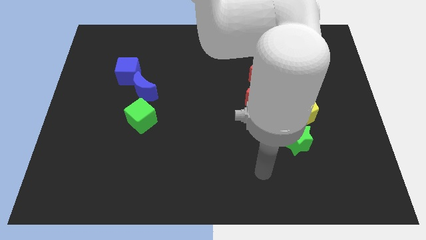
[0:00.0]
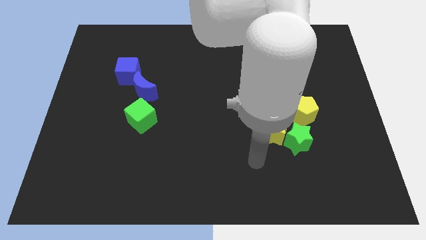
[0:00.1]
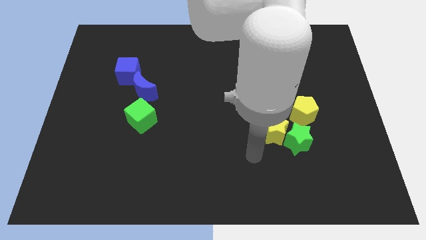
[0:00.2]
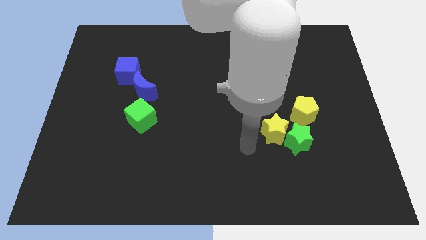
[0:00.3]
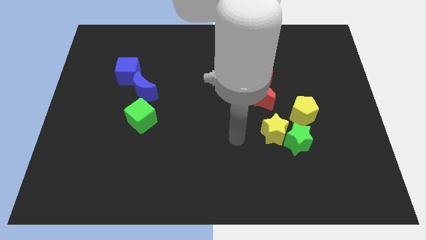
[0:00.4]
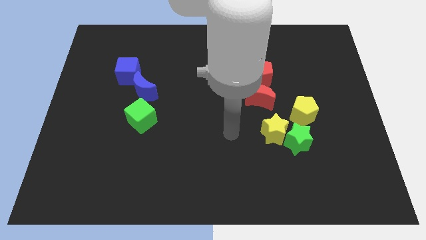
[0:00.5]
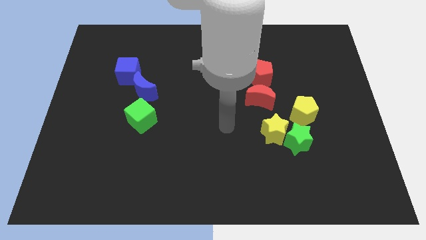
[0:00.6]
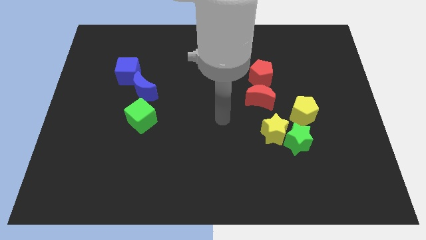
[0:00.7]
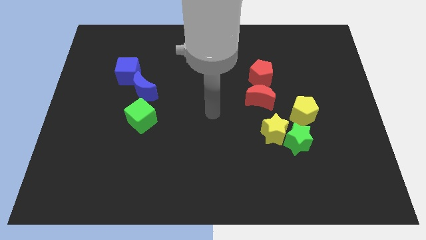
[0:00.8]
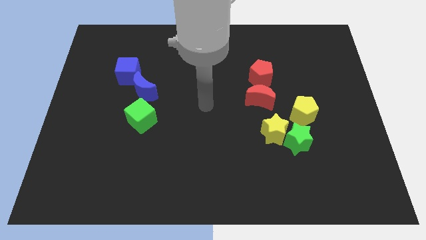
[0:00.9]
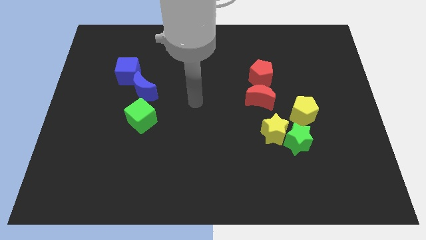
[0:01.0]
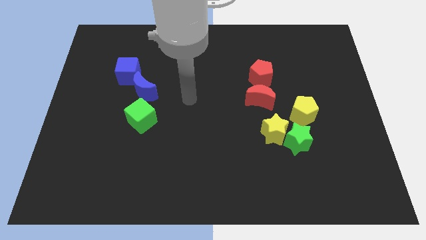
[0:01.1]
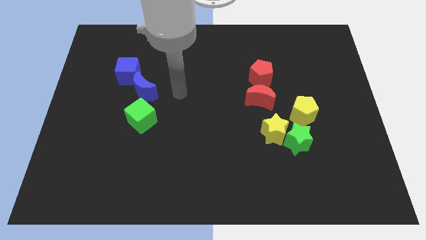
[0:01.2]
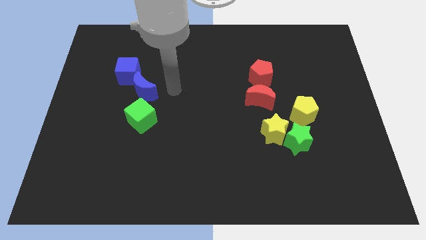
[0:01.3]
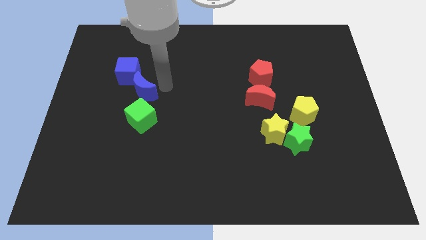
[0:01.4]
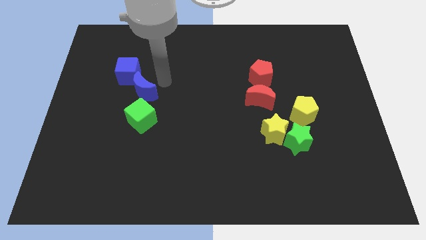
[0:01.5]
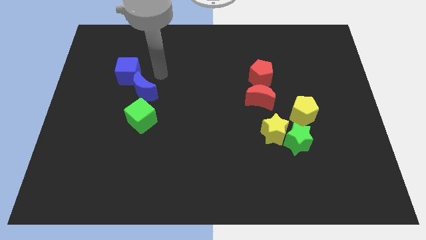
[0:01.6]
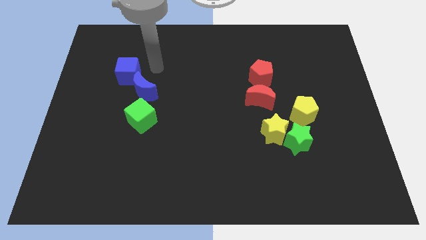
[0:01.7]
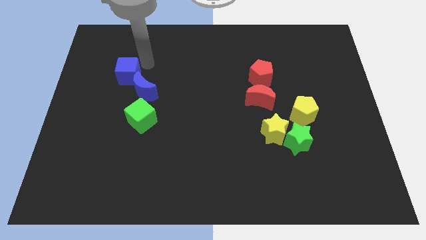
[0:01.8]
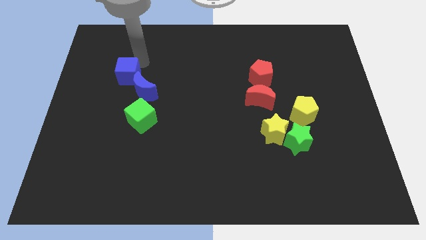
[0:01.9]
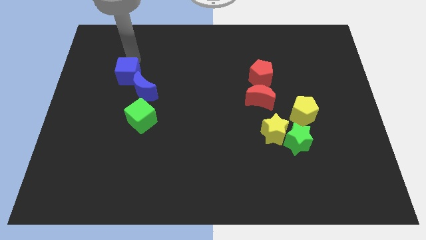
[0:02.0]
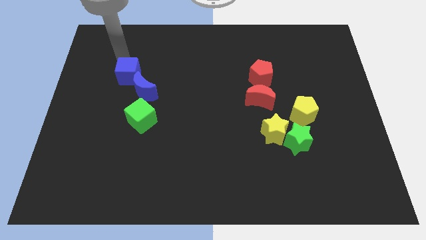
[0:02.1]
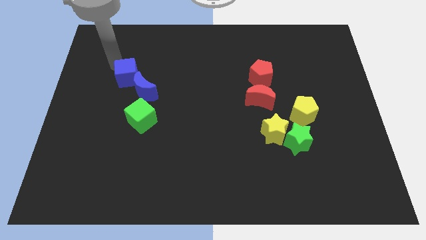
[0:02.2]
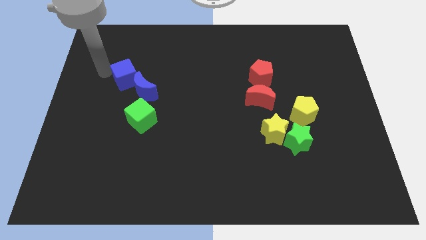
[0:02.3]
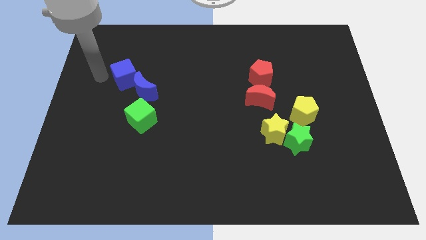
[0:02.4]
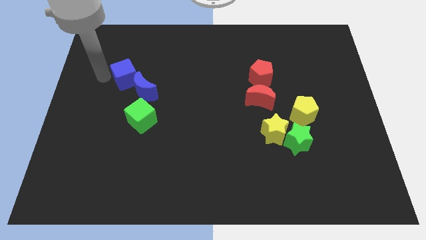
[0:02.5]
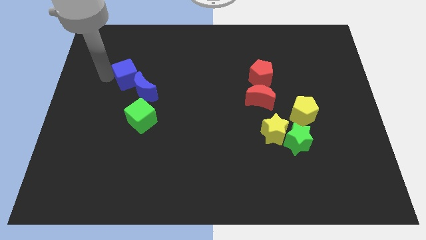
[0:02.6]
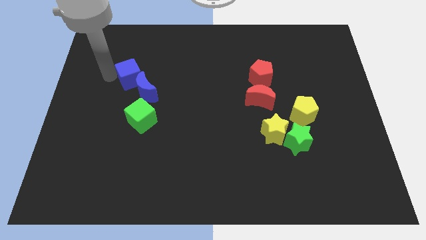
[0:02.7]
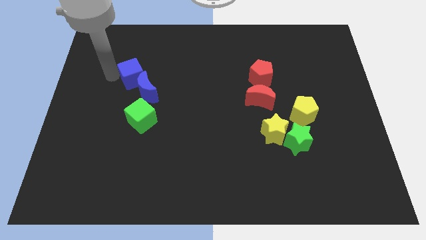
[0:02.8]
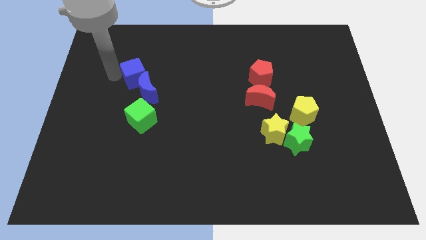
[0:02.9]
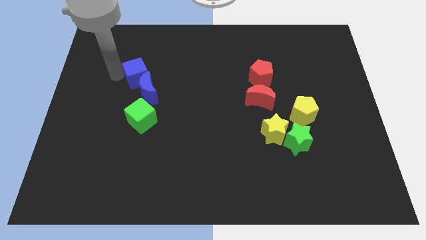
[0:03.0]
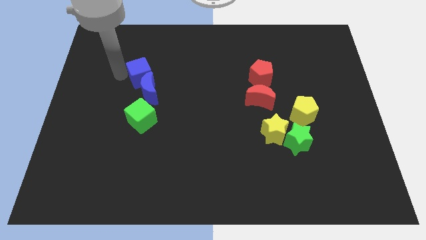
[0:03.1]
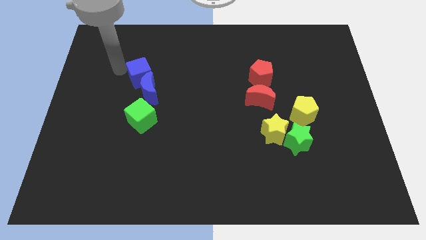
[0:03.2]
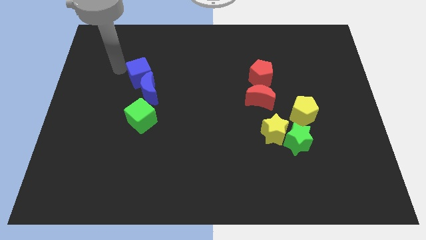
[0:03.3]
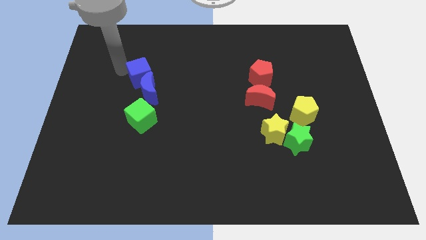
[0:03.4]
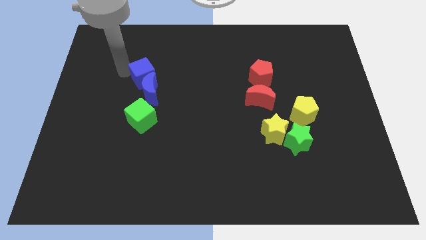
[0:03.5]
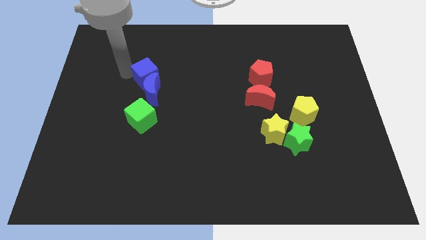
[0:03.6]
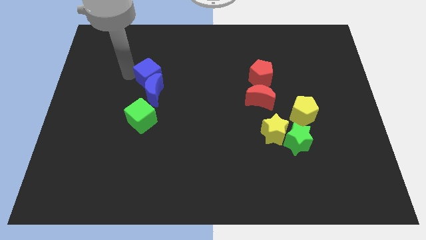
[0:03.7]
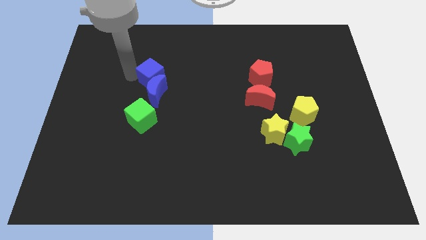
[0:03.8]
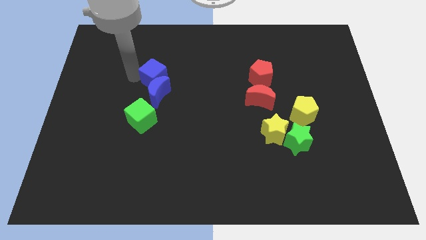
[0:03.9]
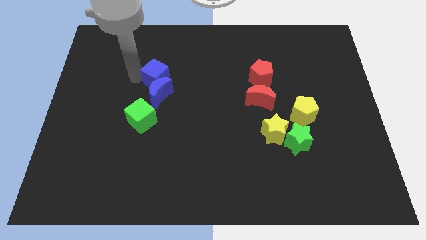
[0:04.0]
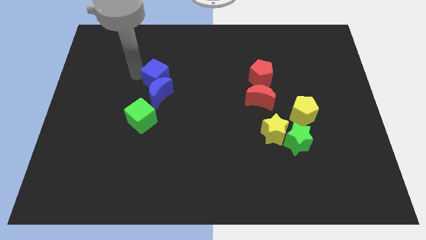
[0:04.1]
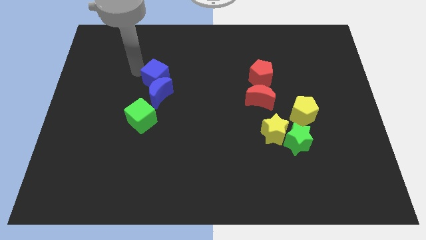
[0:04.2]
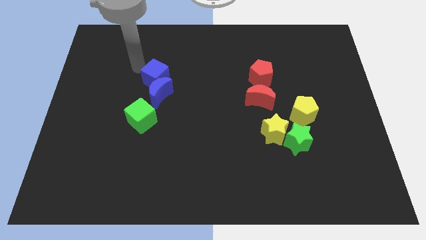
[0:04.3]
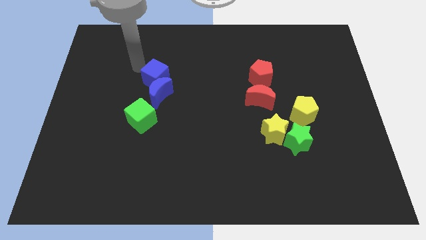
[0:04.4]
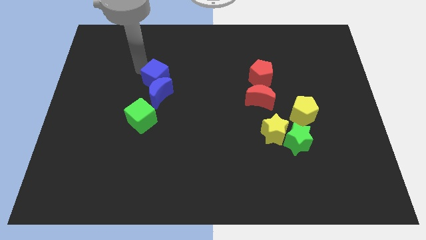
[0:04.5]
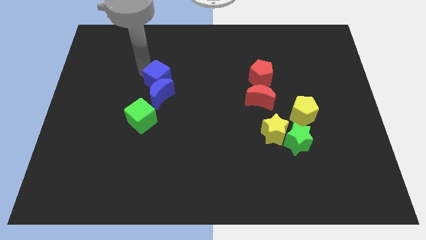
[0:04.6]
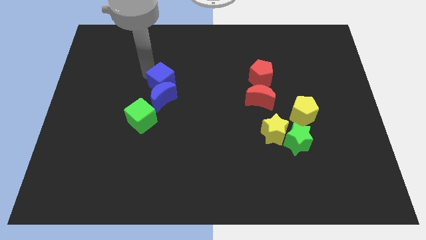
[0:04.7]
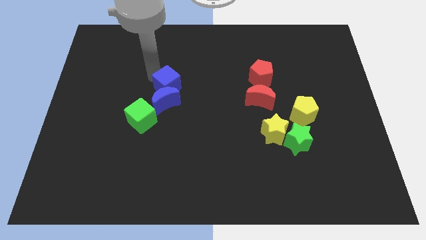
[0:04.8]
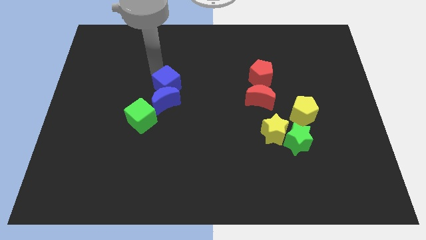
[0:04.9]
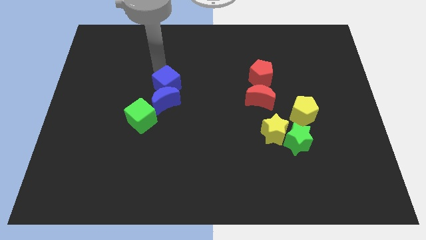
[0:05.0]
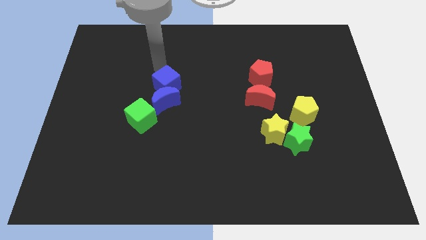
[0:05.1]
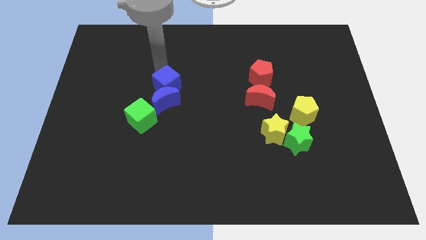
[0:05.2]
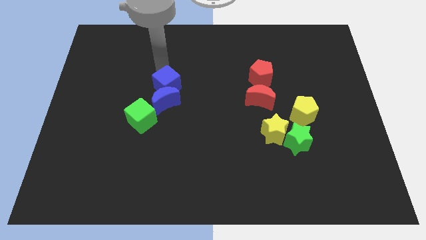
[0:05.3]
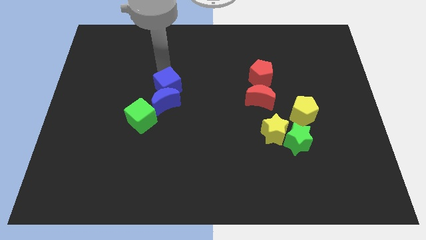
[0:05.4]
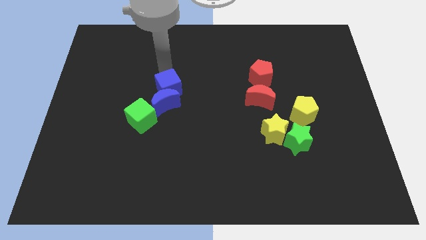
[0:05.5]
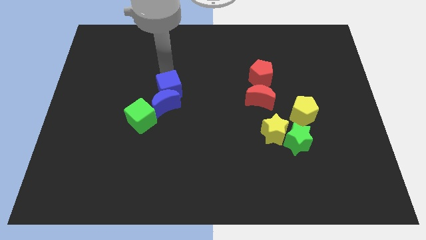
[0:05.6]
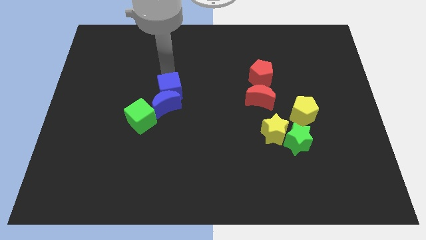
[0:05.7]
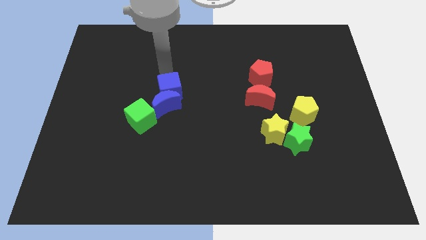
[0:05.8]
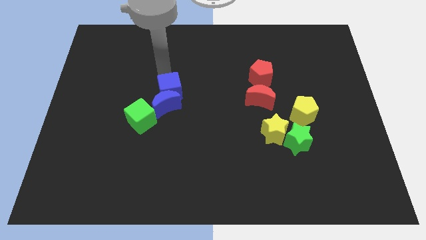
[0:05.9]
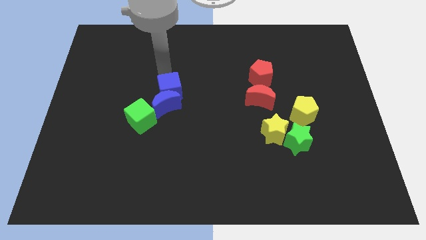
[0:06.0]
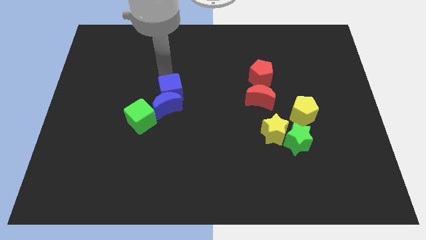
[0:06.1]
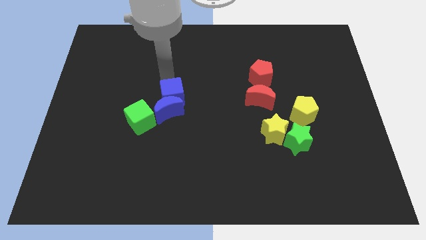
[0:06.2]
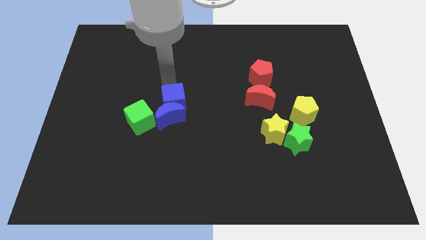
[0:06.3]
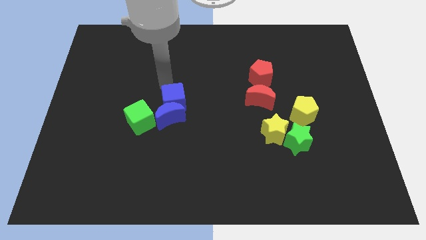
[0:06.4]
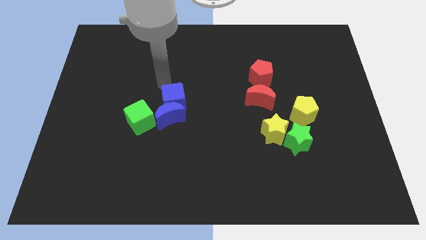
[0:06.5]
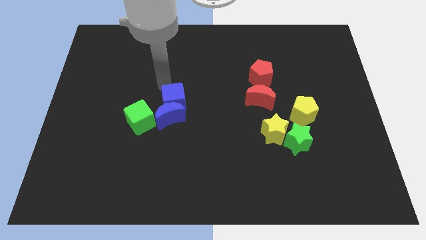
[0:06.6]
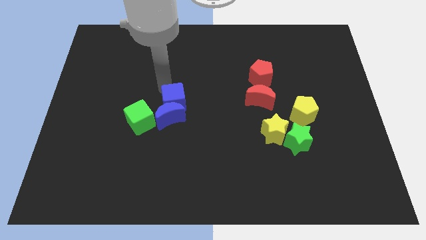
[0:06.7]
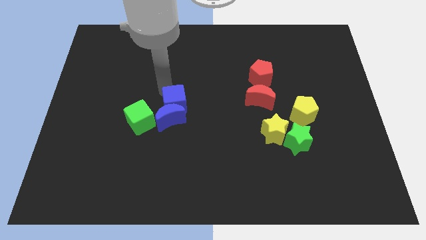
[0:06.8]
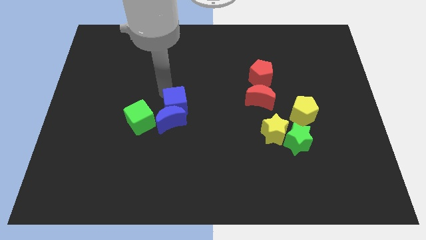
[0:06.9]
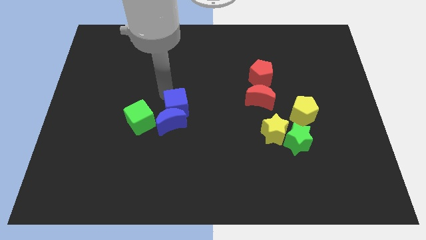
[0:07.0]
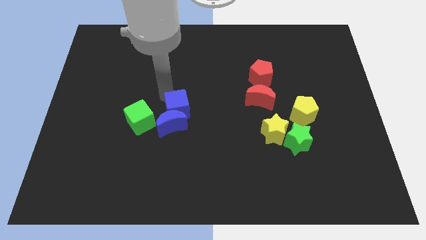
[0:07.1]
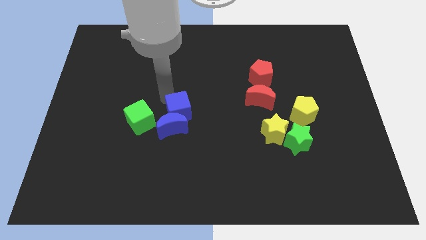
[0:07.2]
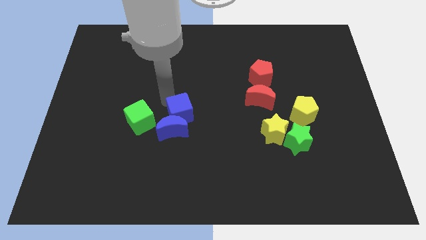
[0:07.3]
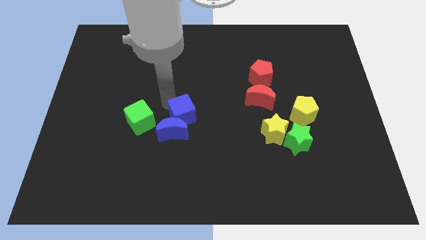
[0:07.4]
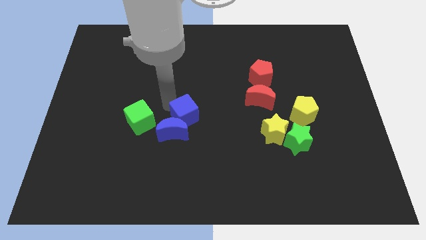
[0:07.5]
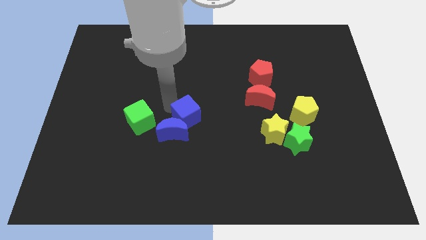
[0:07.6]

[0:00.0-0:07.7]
push the blue cube downwards and then right

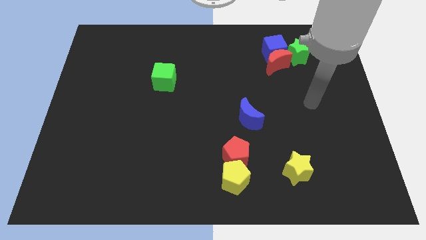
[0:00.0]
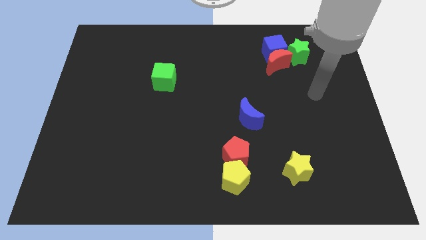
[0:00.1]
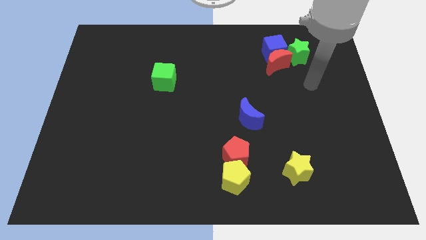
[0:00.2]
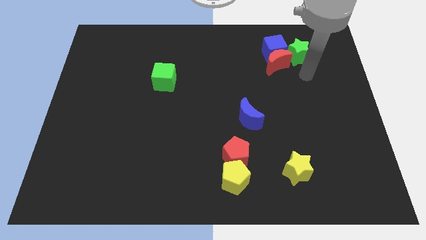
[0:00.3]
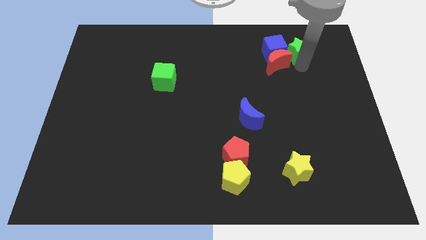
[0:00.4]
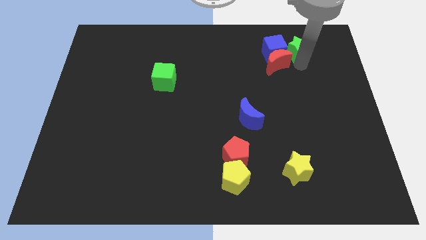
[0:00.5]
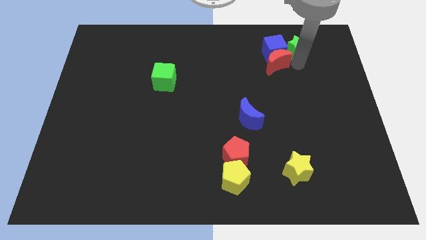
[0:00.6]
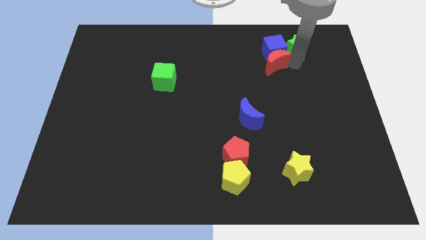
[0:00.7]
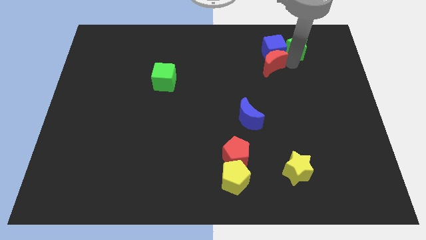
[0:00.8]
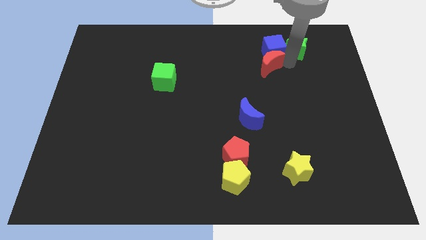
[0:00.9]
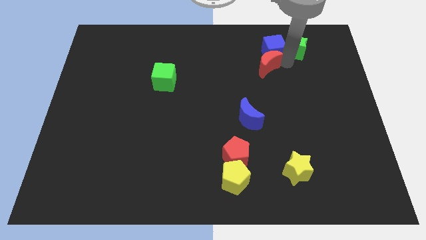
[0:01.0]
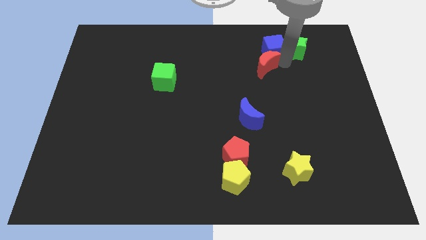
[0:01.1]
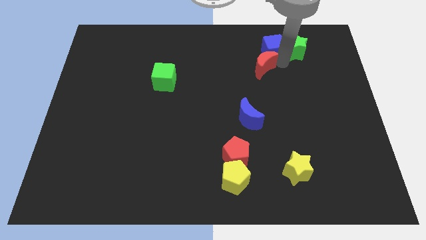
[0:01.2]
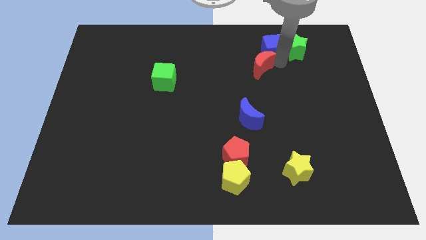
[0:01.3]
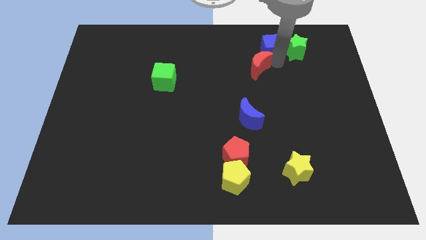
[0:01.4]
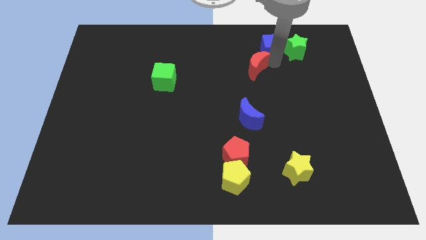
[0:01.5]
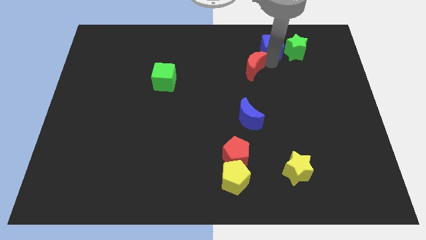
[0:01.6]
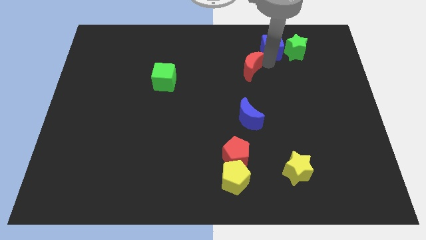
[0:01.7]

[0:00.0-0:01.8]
push the red moon a little left
